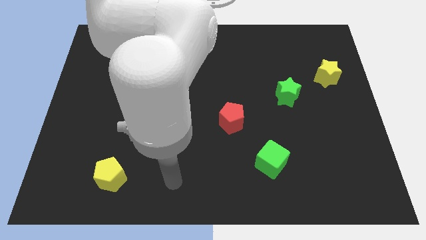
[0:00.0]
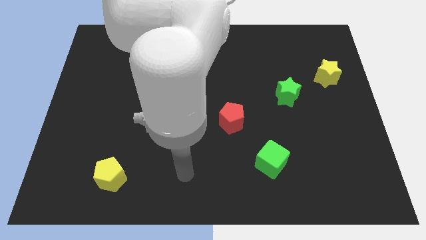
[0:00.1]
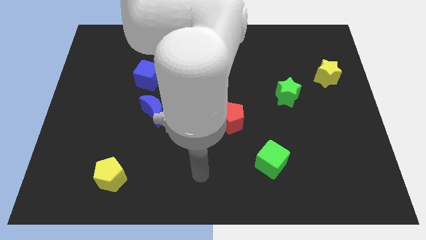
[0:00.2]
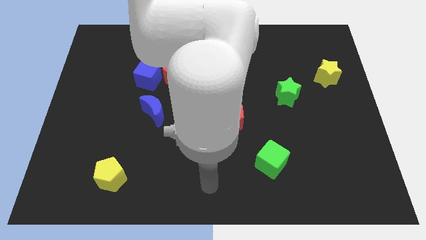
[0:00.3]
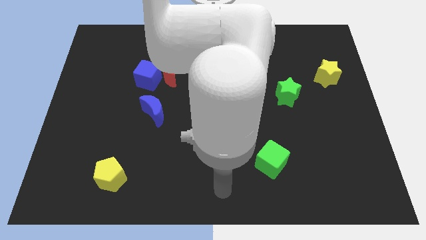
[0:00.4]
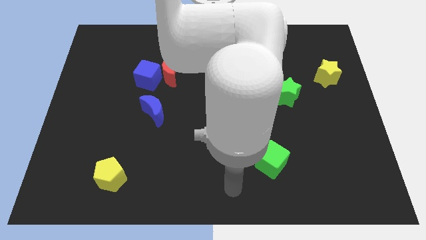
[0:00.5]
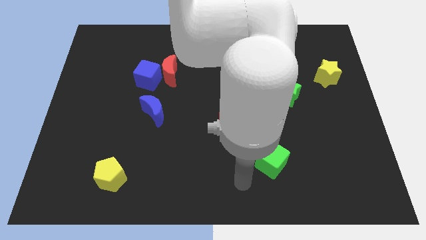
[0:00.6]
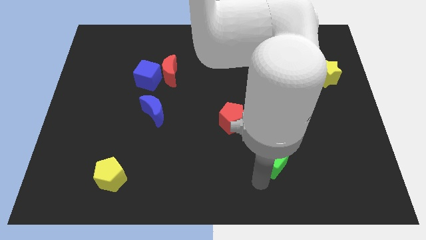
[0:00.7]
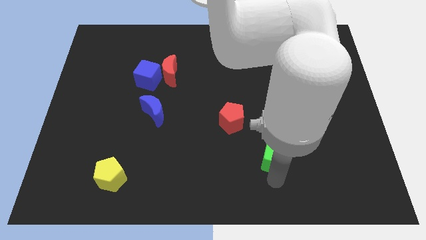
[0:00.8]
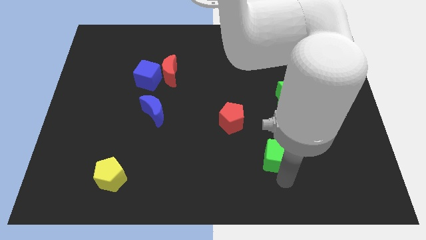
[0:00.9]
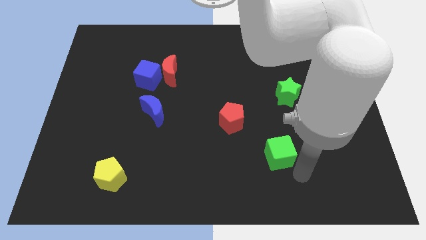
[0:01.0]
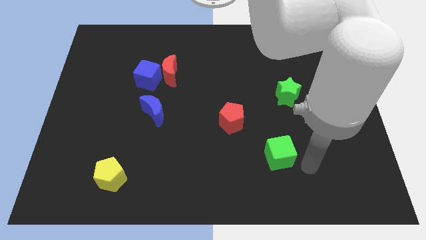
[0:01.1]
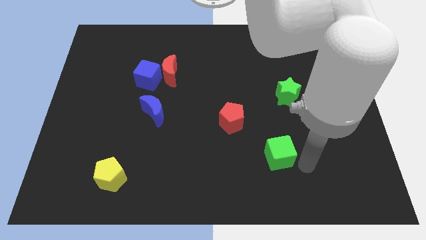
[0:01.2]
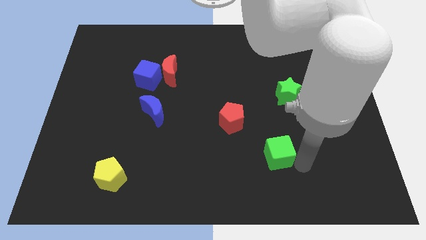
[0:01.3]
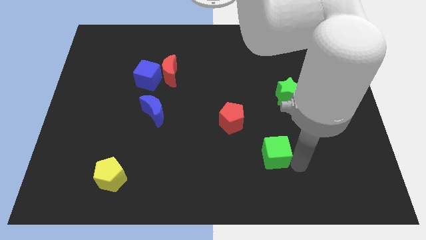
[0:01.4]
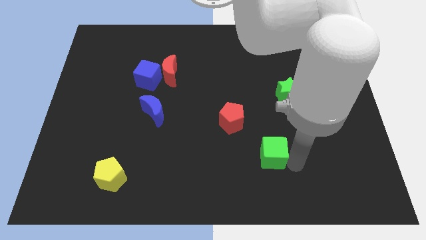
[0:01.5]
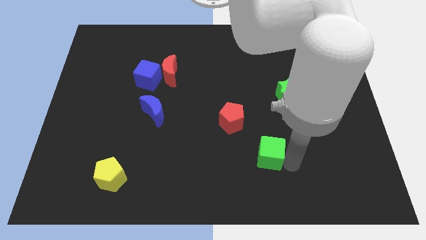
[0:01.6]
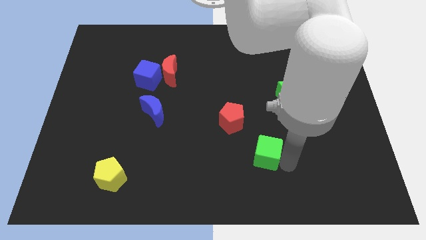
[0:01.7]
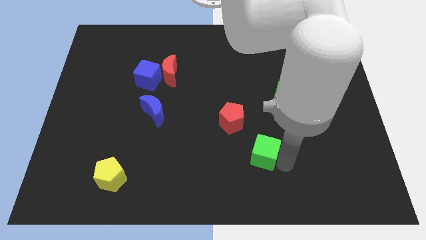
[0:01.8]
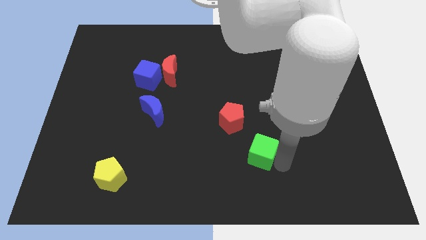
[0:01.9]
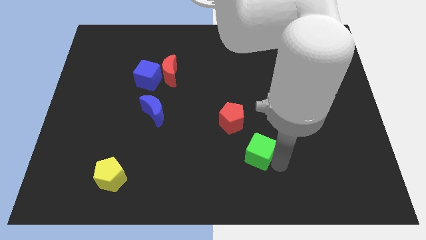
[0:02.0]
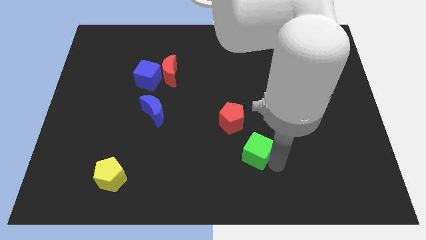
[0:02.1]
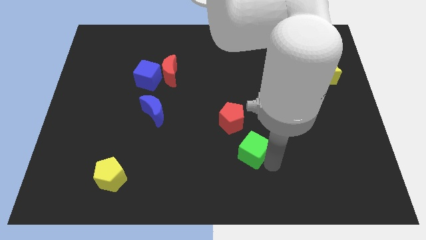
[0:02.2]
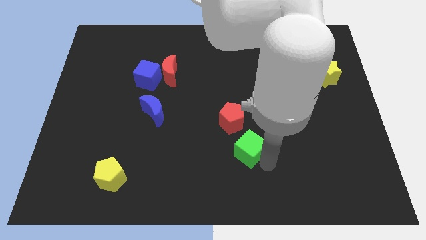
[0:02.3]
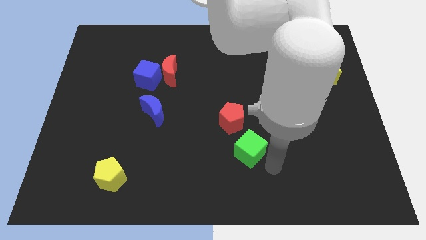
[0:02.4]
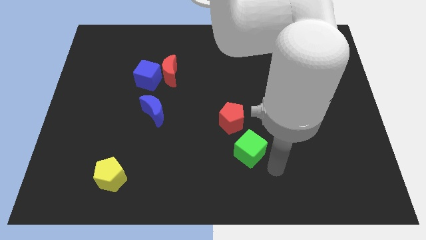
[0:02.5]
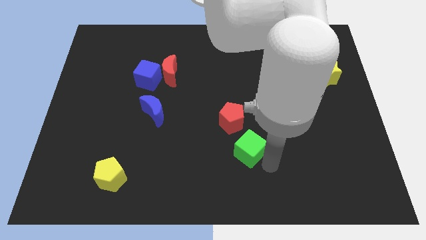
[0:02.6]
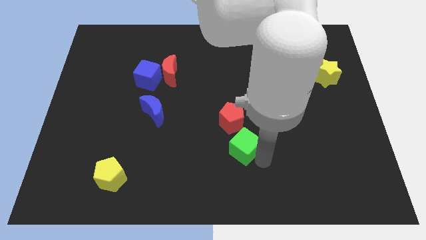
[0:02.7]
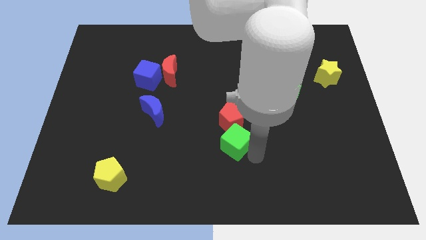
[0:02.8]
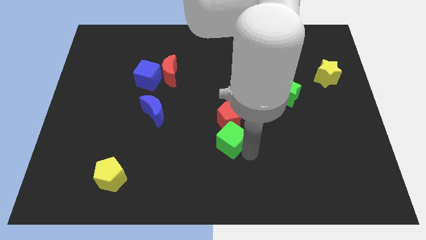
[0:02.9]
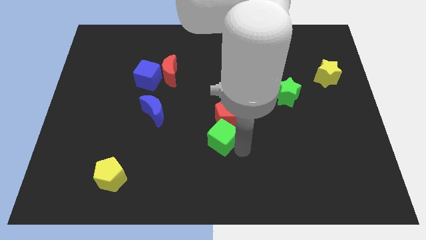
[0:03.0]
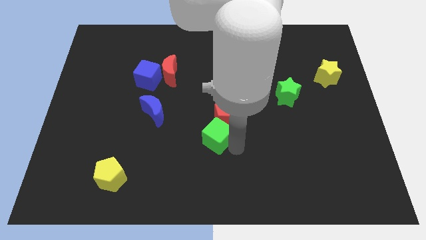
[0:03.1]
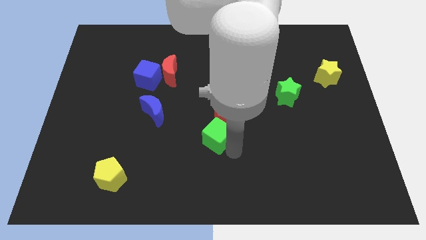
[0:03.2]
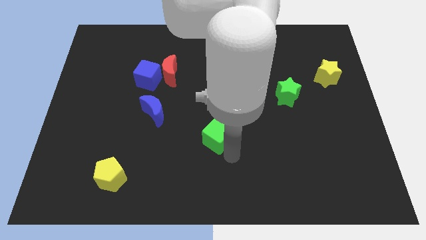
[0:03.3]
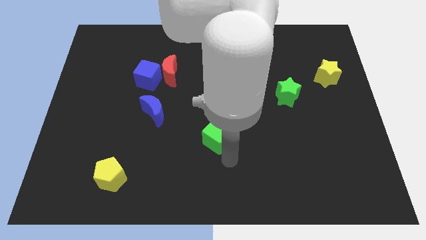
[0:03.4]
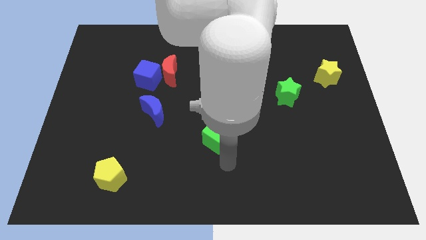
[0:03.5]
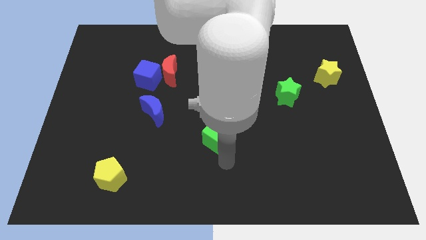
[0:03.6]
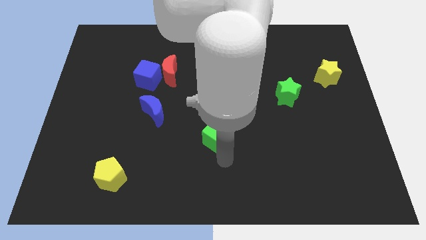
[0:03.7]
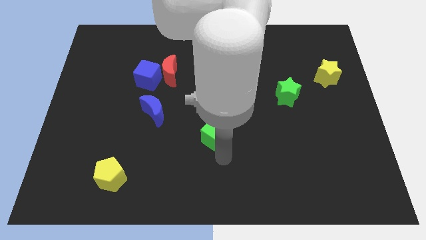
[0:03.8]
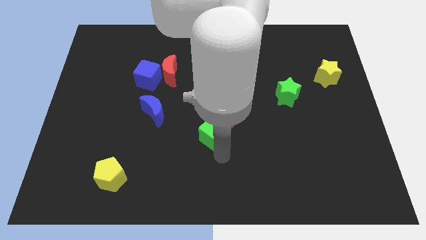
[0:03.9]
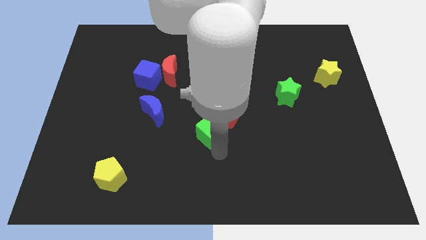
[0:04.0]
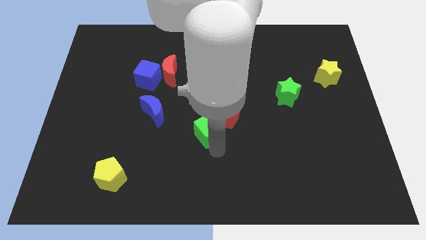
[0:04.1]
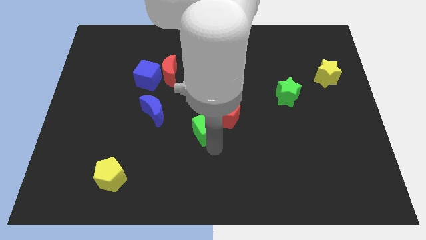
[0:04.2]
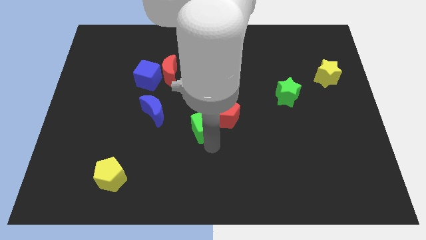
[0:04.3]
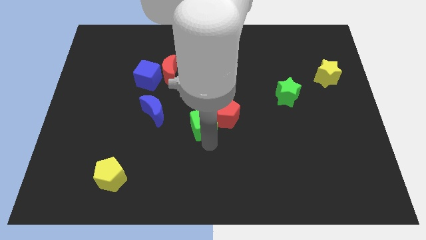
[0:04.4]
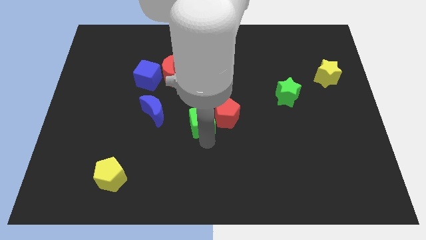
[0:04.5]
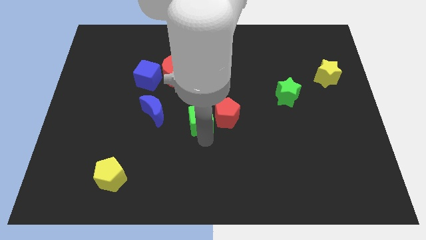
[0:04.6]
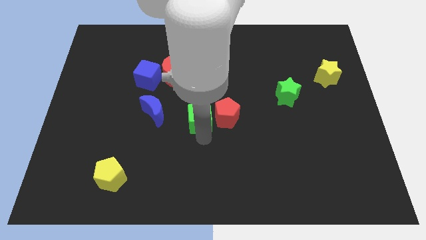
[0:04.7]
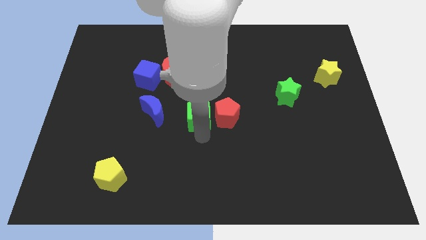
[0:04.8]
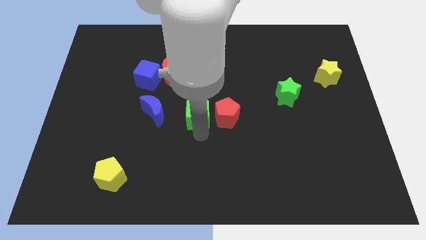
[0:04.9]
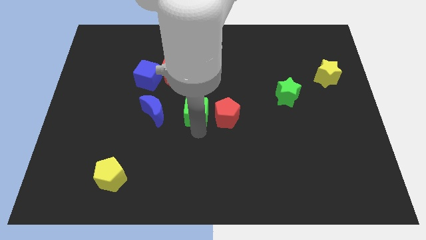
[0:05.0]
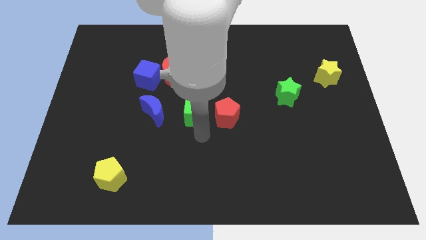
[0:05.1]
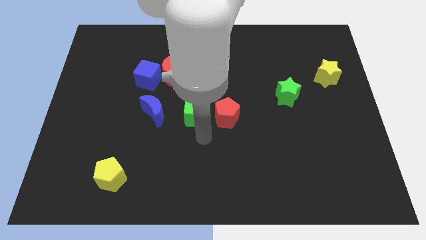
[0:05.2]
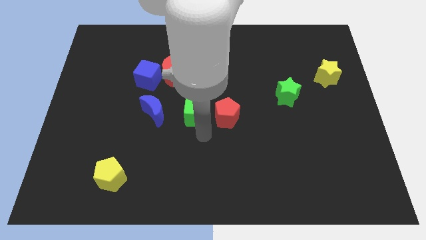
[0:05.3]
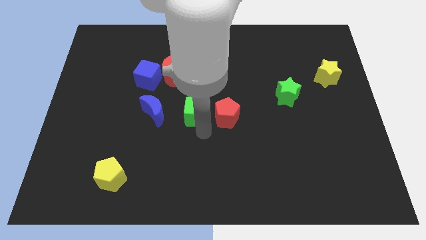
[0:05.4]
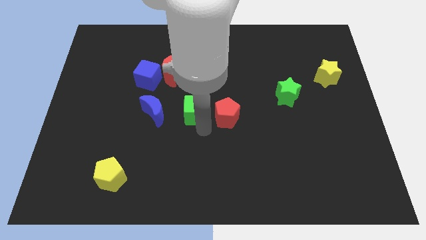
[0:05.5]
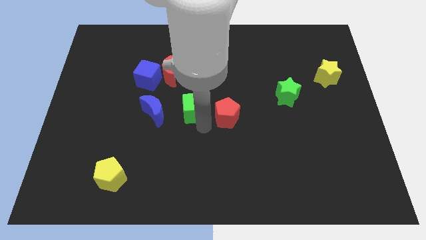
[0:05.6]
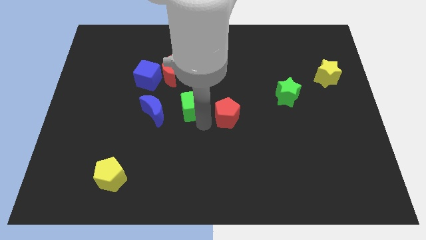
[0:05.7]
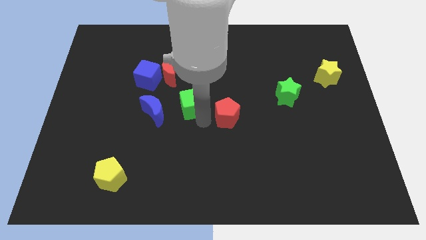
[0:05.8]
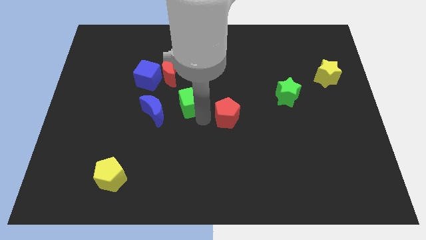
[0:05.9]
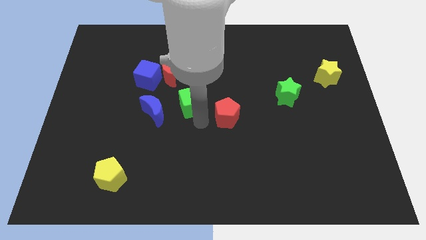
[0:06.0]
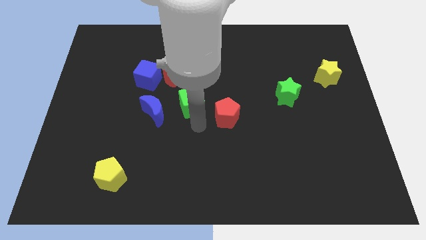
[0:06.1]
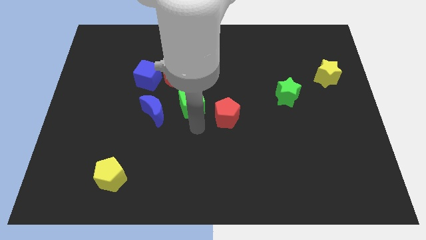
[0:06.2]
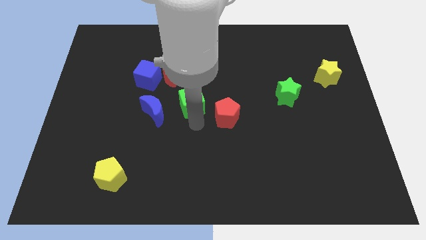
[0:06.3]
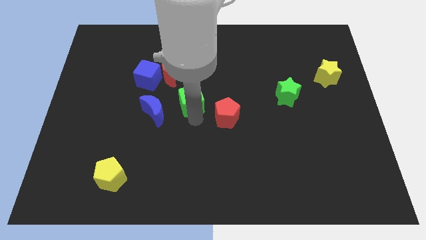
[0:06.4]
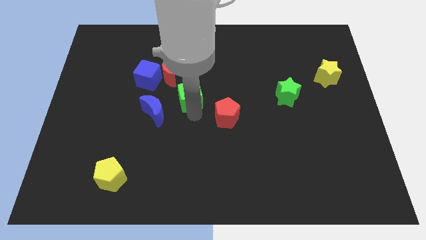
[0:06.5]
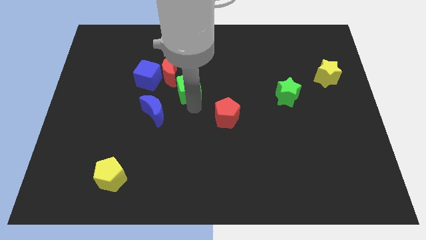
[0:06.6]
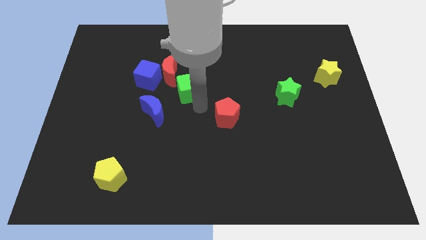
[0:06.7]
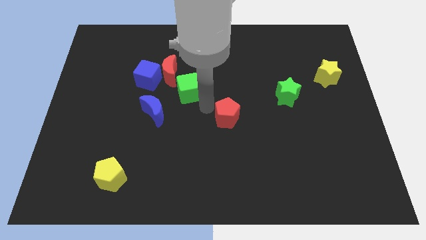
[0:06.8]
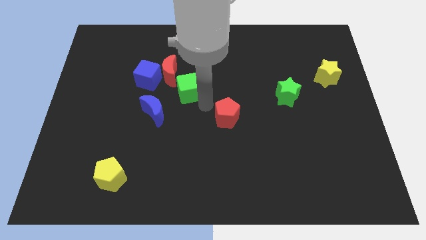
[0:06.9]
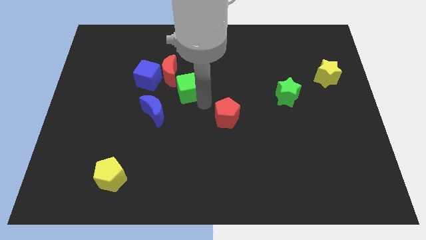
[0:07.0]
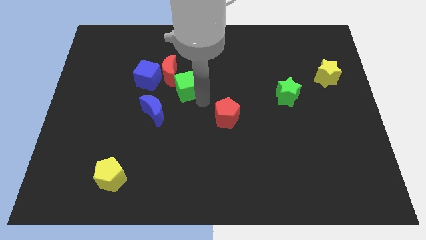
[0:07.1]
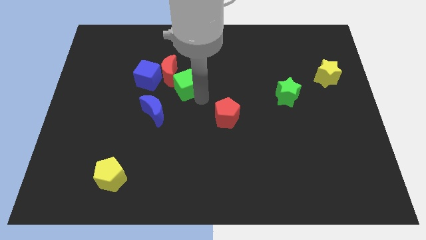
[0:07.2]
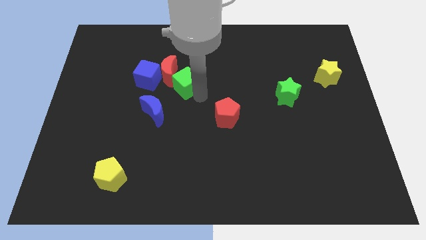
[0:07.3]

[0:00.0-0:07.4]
slide the green cube next to the red moon

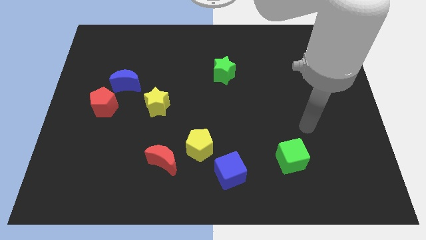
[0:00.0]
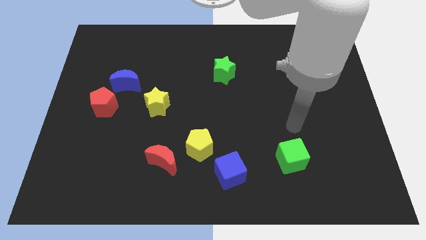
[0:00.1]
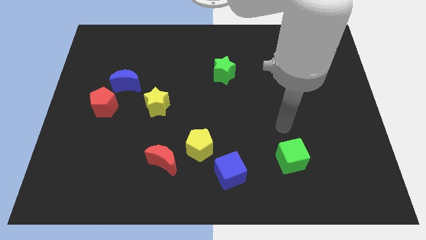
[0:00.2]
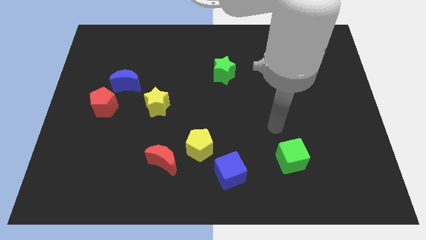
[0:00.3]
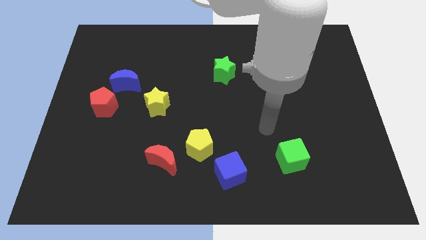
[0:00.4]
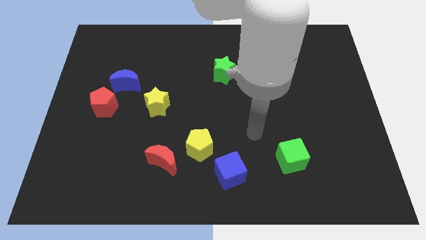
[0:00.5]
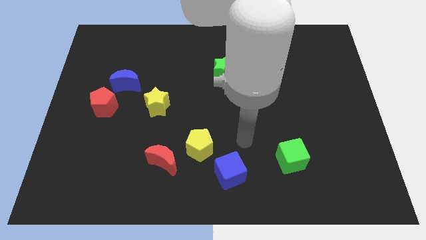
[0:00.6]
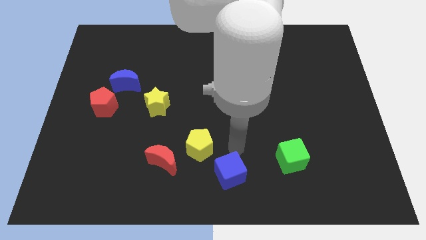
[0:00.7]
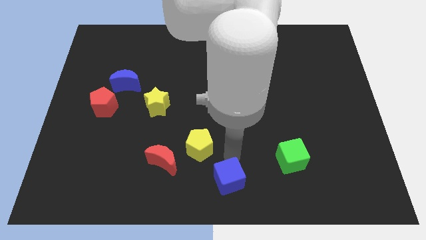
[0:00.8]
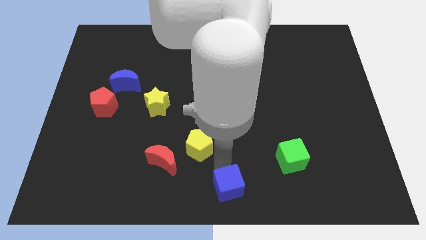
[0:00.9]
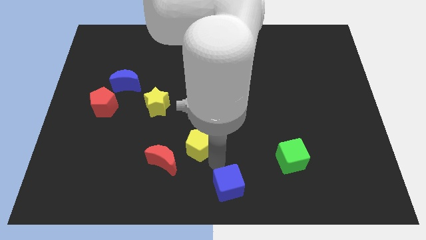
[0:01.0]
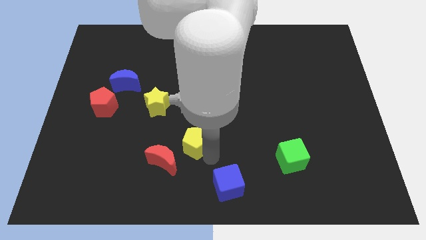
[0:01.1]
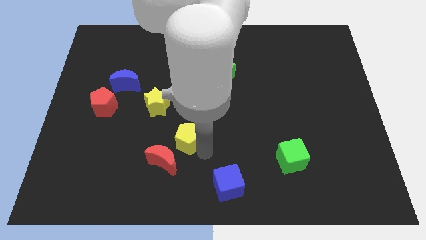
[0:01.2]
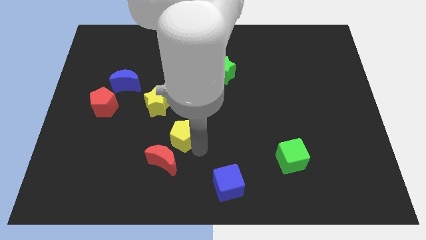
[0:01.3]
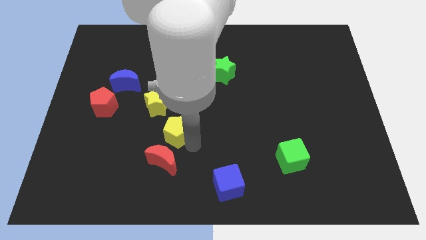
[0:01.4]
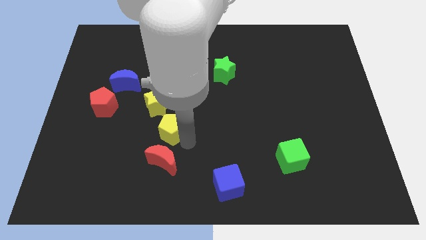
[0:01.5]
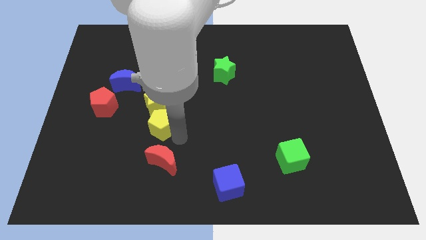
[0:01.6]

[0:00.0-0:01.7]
slide the yellow pentagon close to the yellow star
